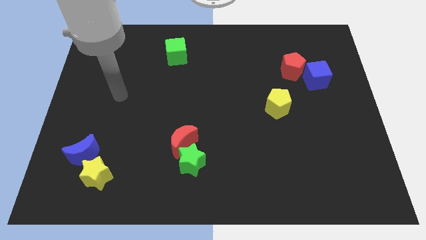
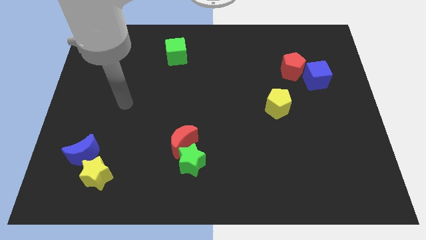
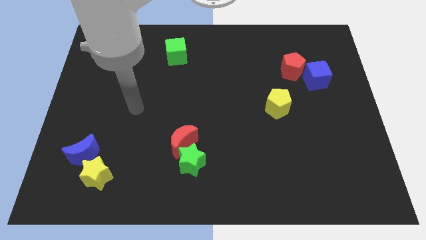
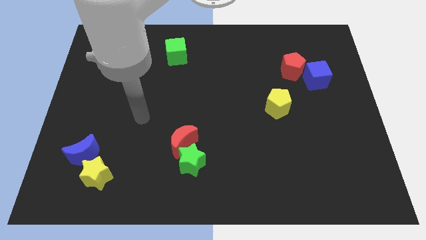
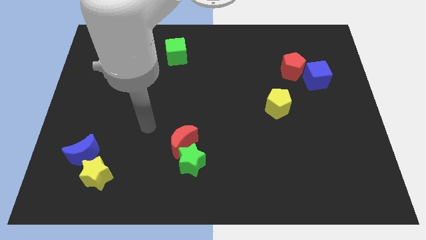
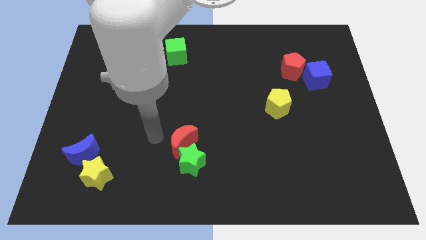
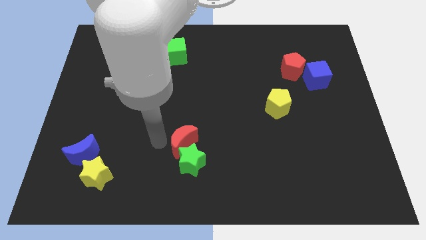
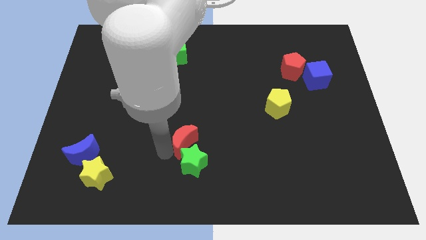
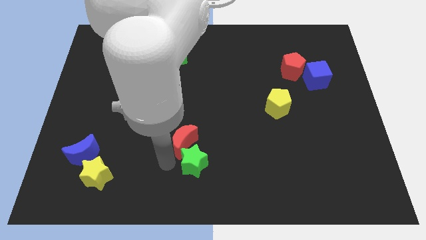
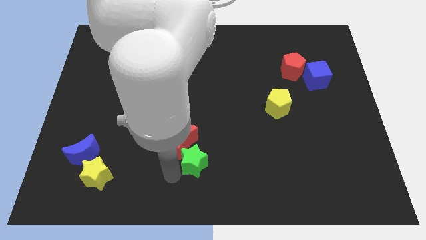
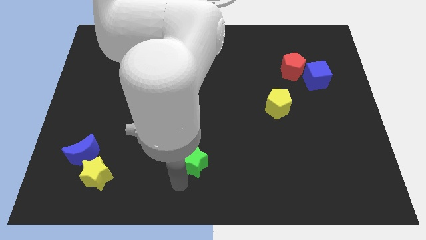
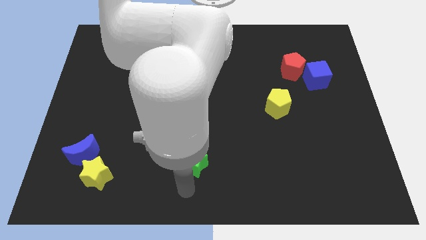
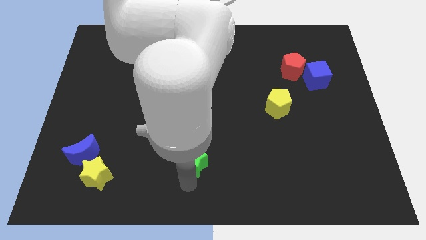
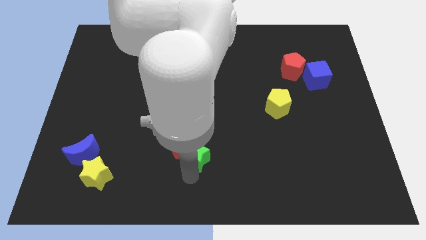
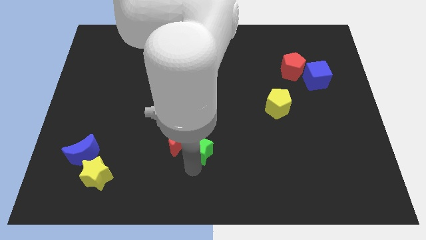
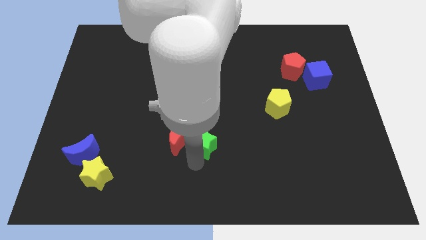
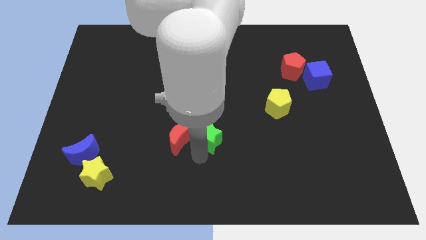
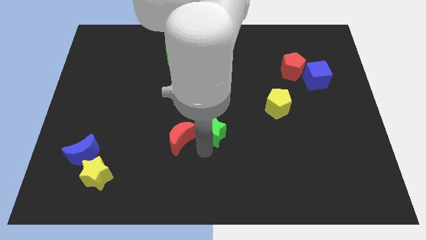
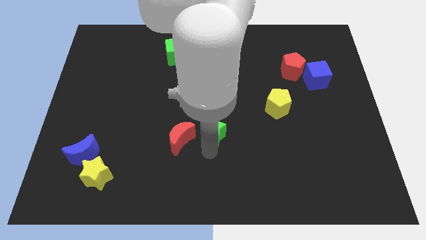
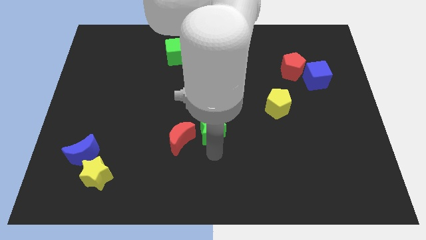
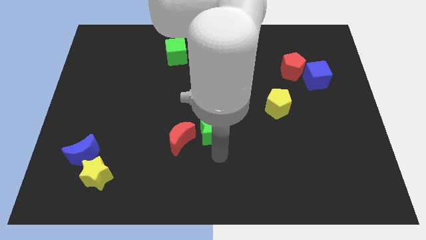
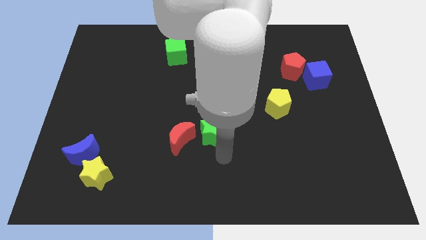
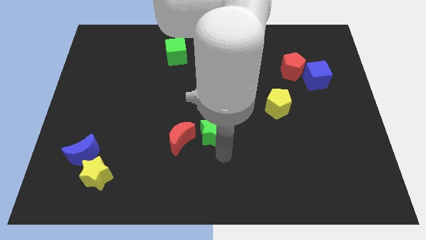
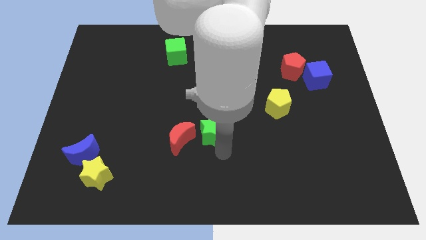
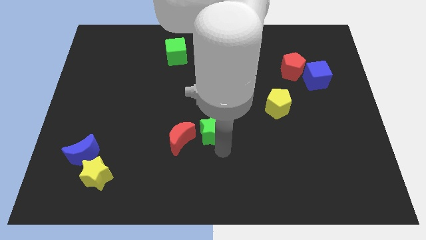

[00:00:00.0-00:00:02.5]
move the green star upwards a little bit

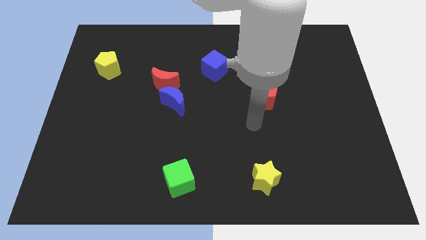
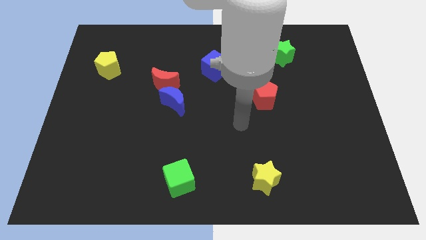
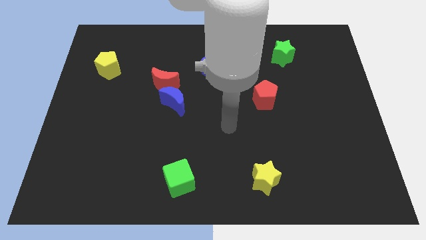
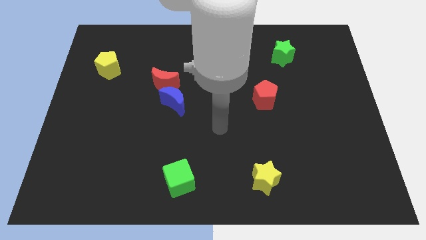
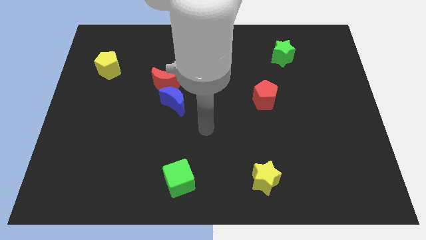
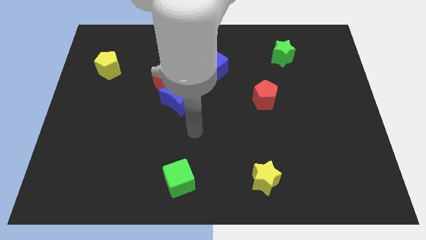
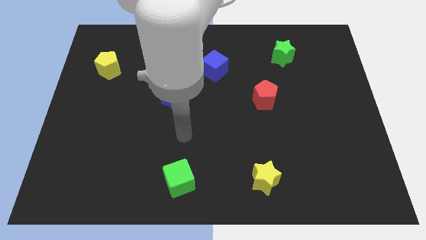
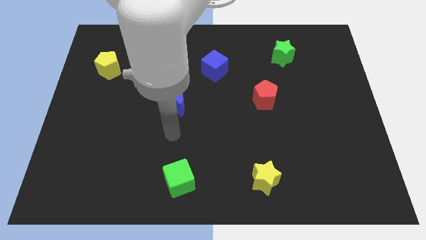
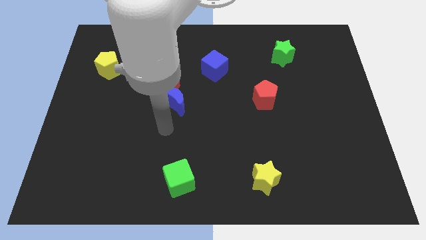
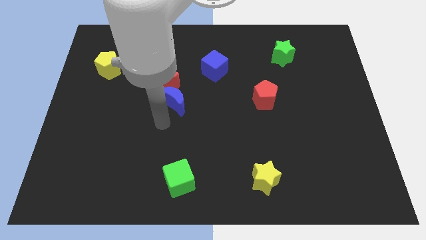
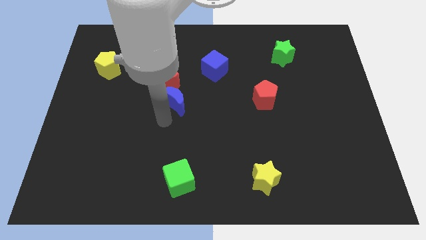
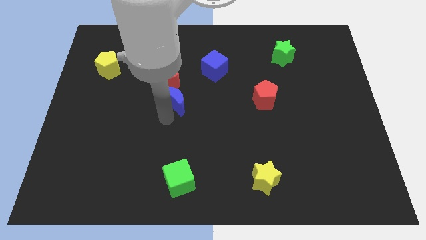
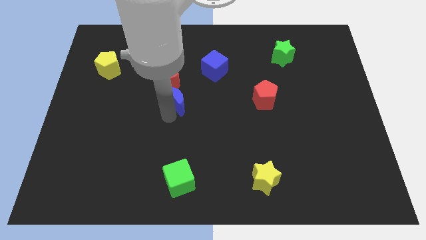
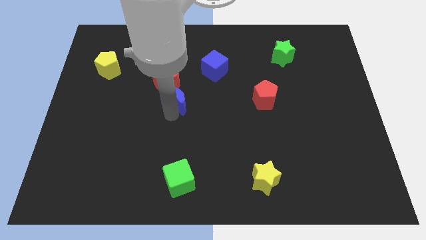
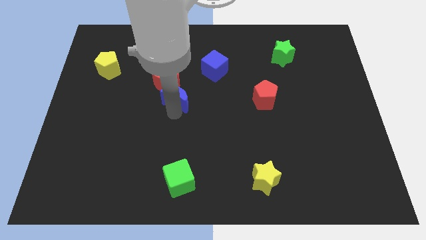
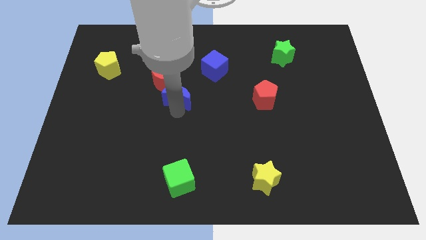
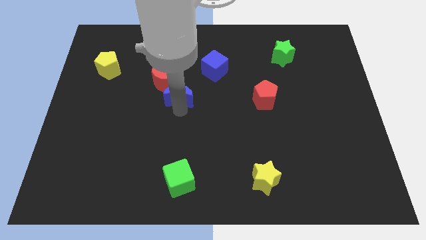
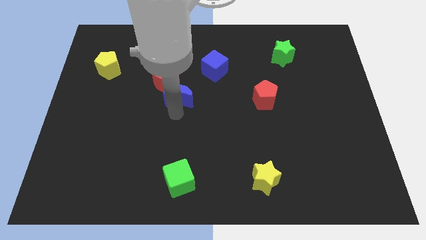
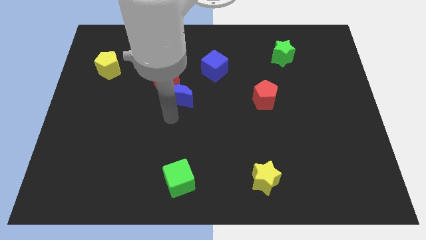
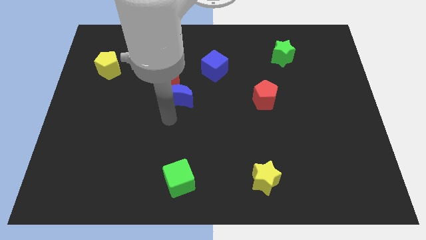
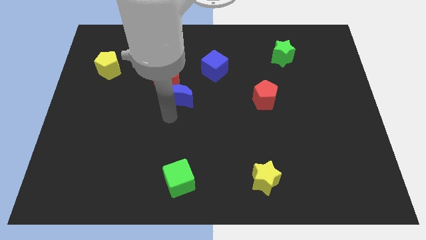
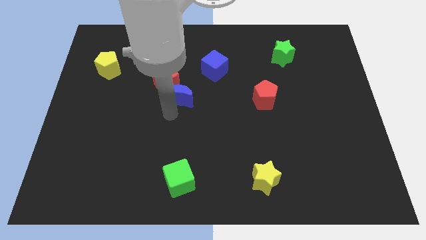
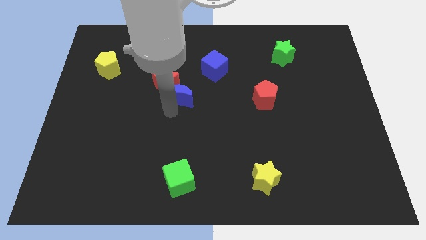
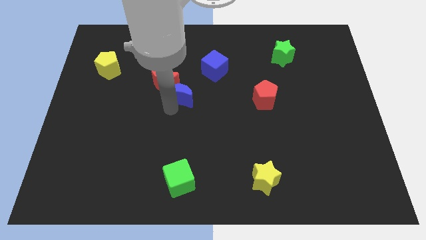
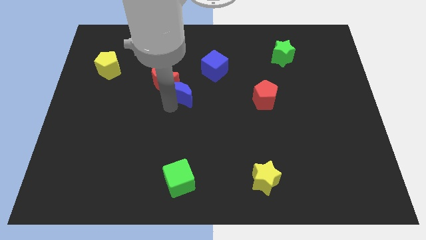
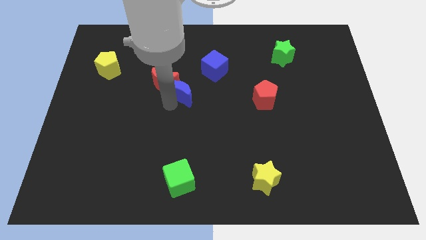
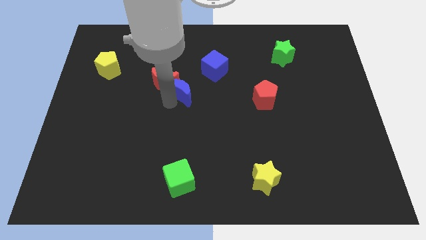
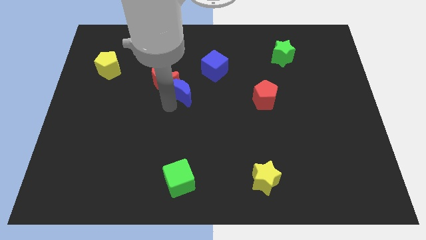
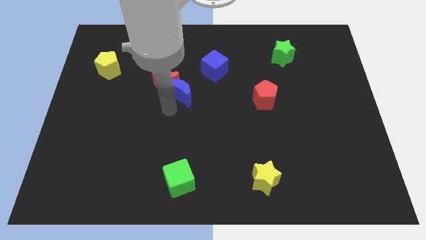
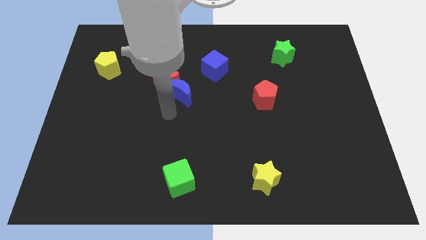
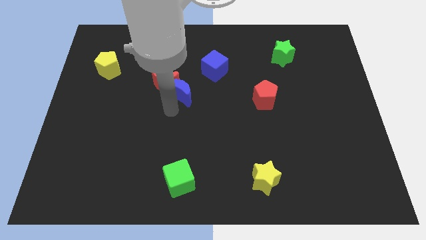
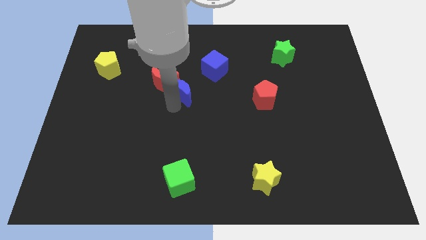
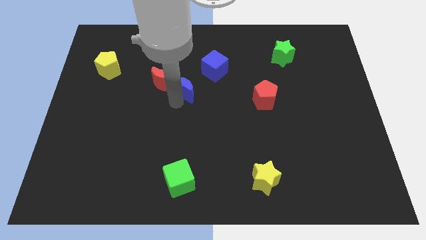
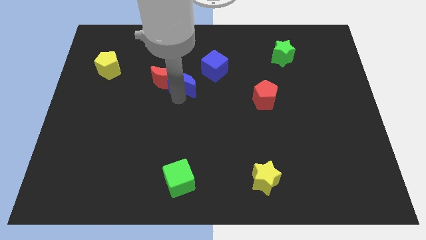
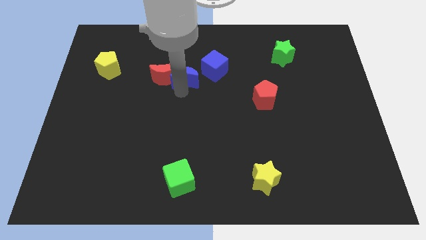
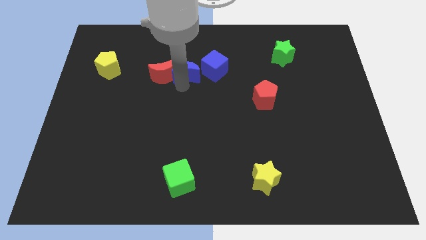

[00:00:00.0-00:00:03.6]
move the blue moon upwards and right a little bit

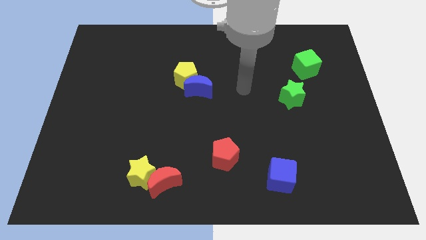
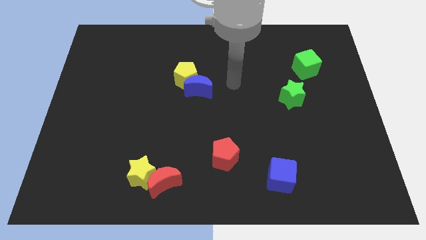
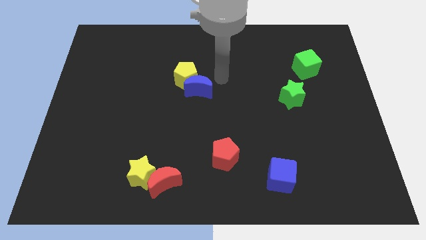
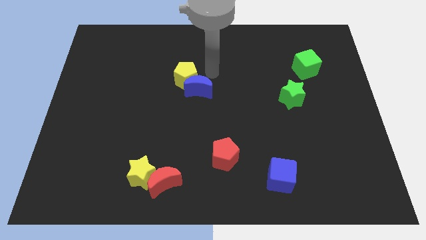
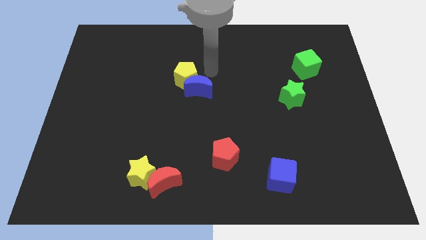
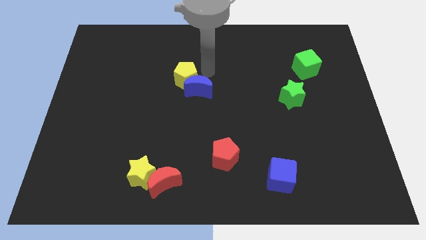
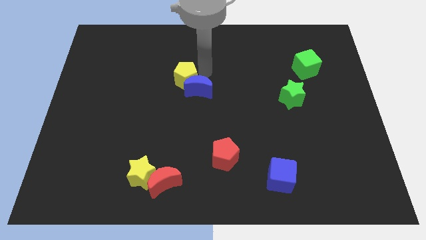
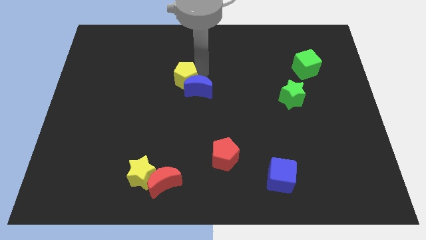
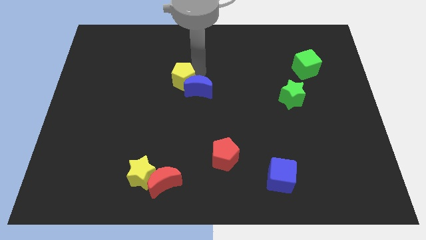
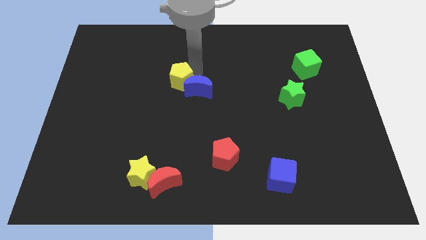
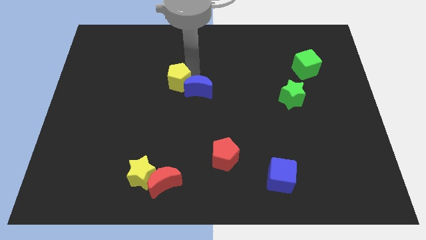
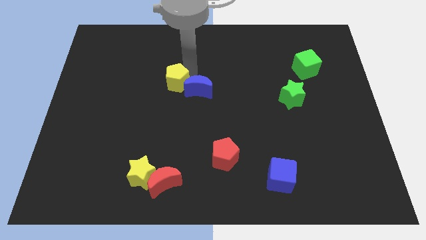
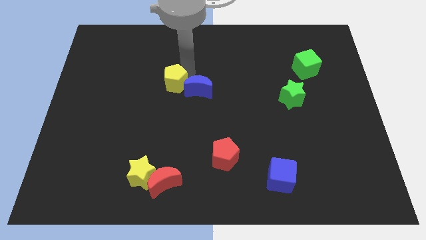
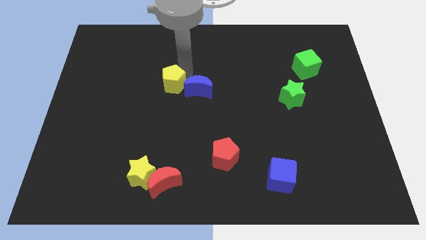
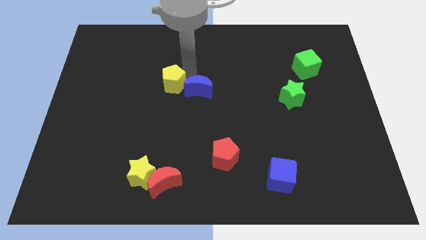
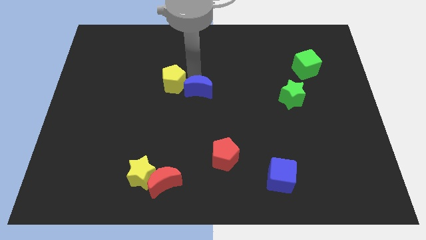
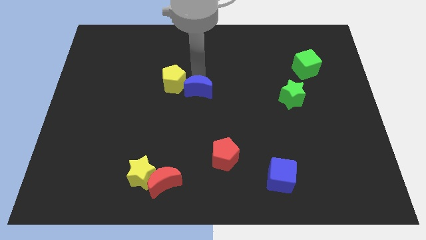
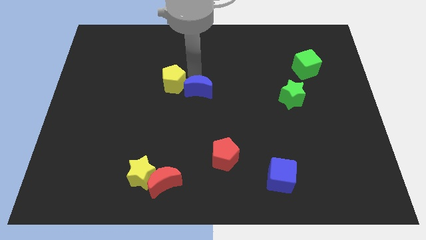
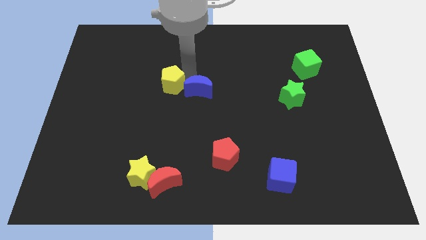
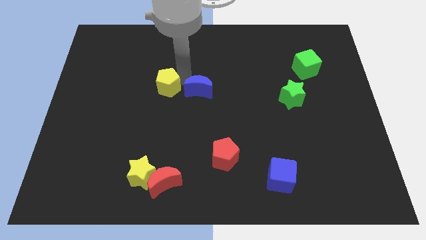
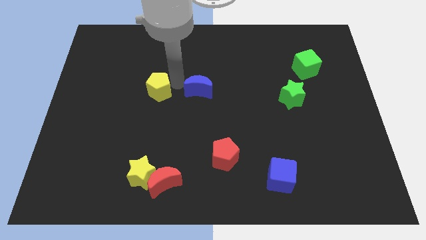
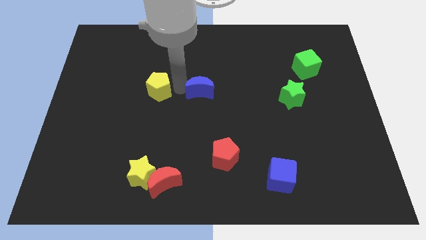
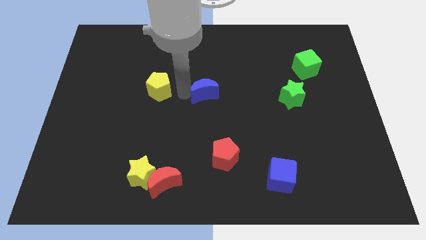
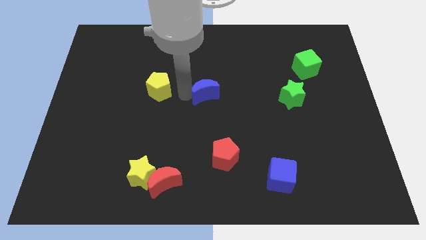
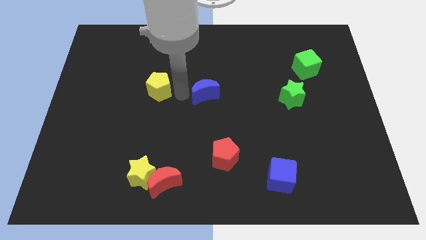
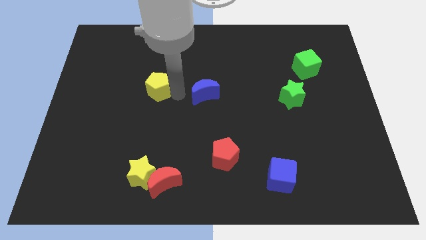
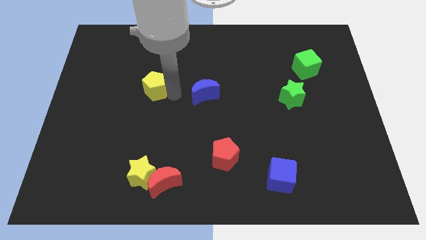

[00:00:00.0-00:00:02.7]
move the yellow pentagon a little left
